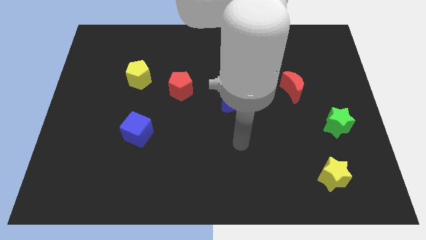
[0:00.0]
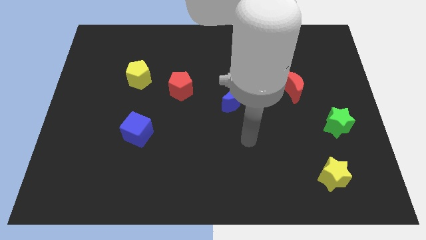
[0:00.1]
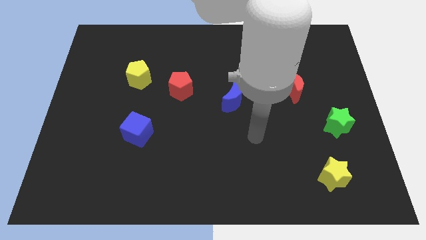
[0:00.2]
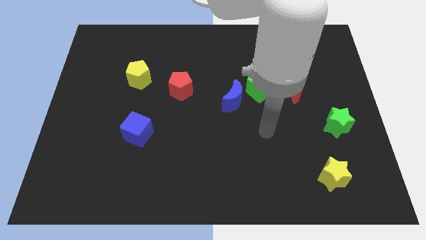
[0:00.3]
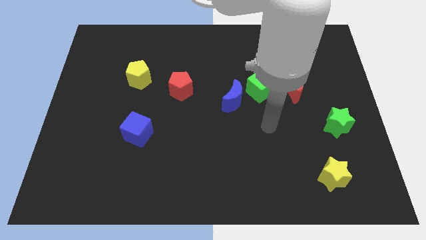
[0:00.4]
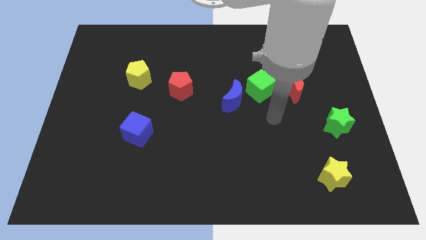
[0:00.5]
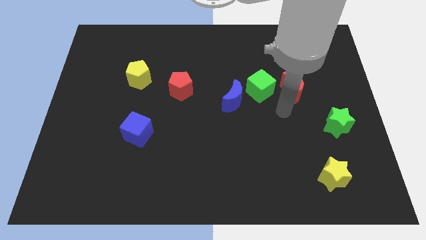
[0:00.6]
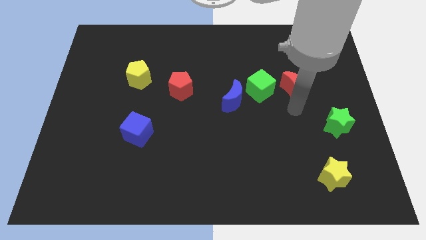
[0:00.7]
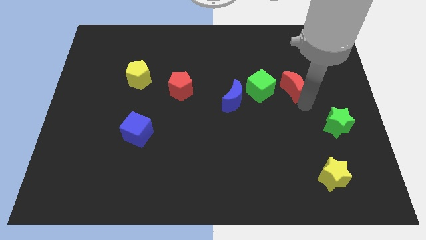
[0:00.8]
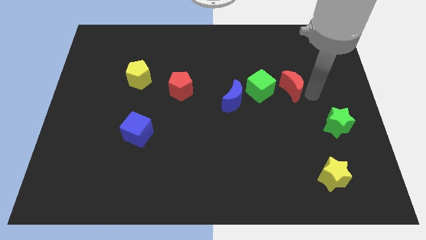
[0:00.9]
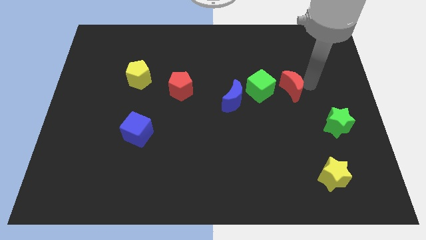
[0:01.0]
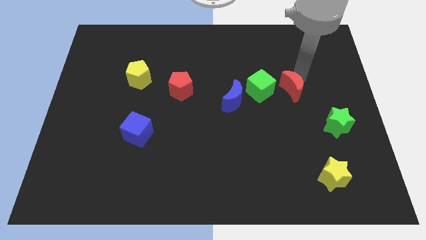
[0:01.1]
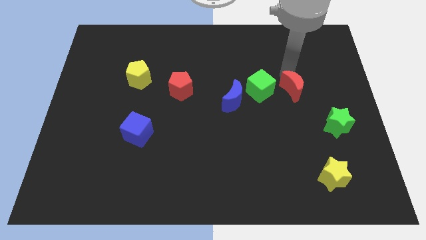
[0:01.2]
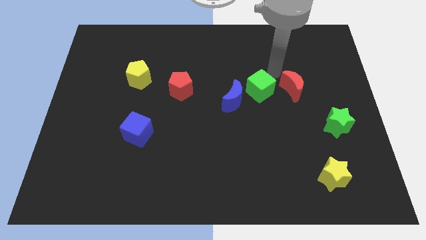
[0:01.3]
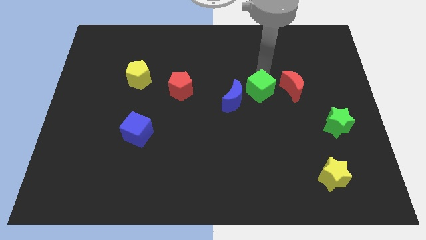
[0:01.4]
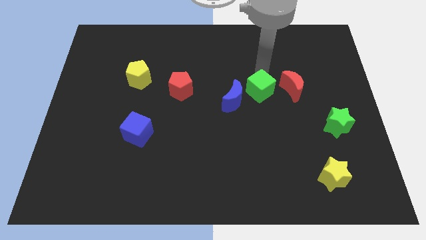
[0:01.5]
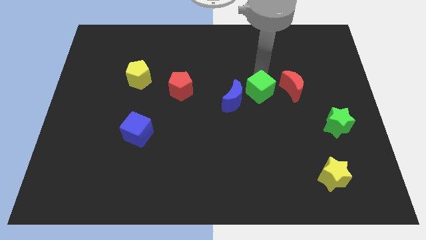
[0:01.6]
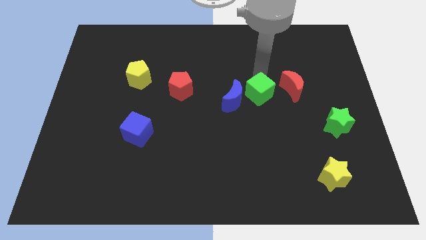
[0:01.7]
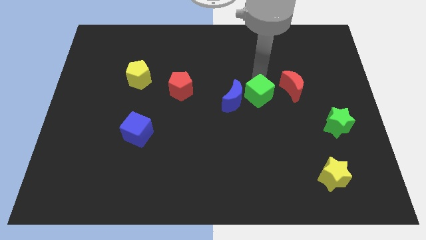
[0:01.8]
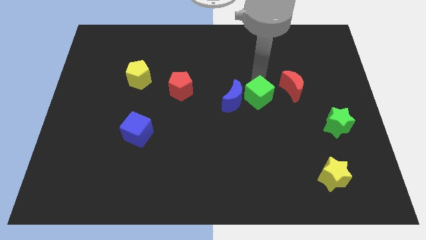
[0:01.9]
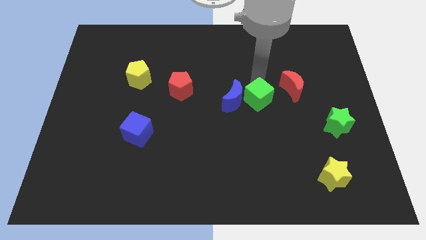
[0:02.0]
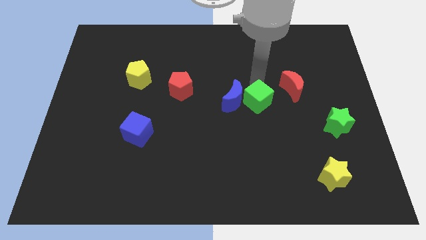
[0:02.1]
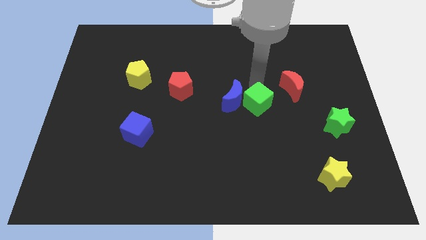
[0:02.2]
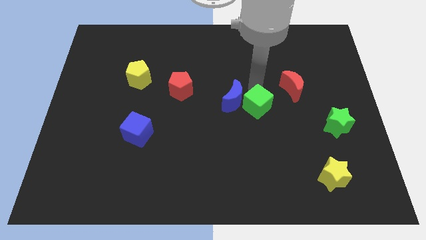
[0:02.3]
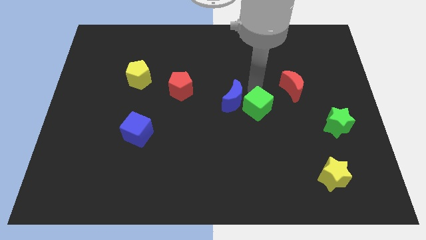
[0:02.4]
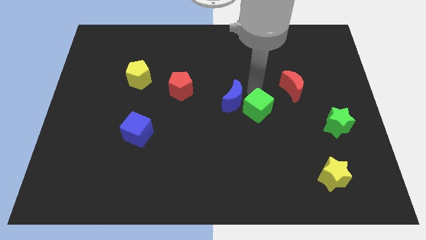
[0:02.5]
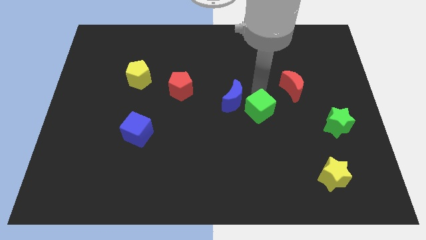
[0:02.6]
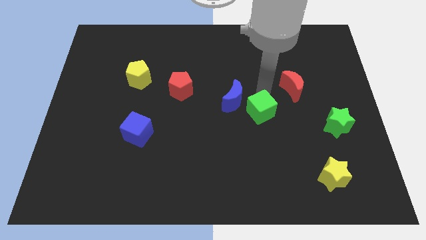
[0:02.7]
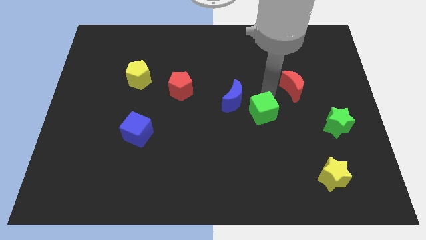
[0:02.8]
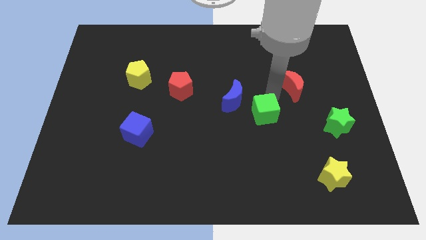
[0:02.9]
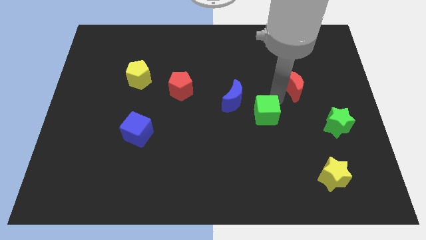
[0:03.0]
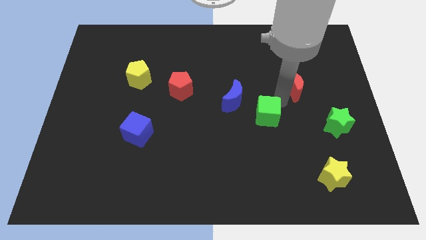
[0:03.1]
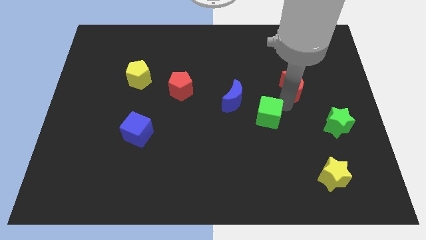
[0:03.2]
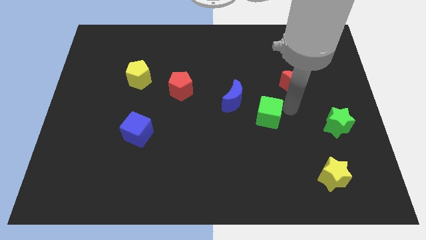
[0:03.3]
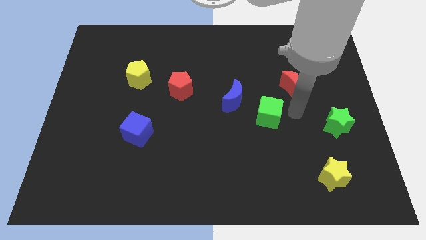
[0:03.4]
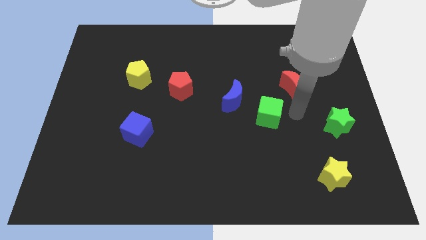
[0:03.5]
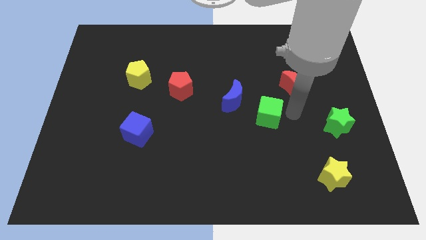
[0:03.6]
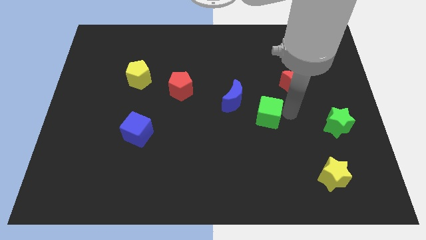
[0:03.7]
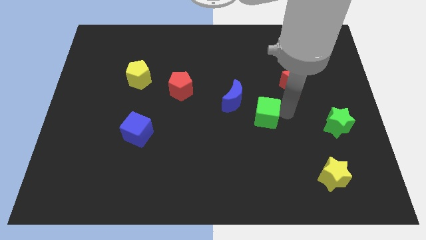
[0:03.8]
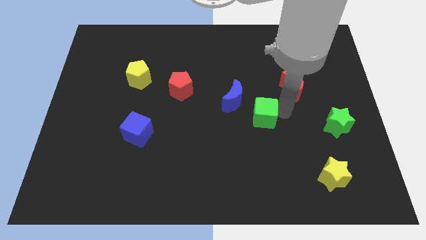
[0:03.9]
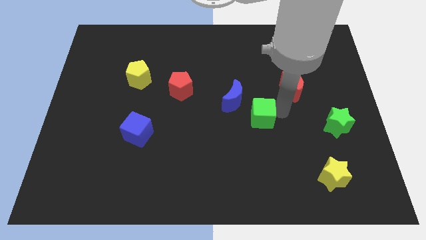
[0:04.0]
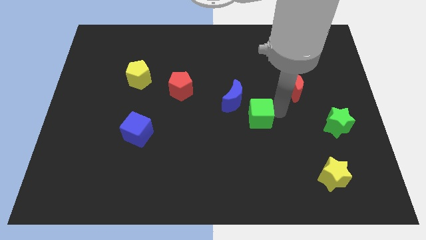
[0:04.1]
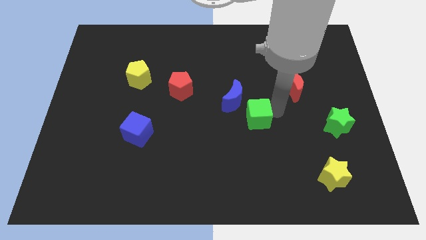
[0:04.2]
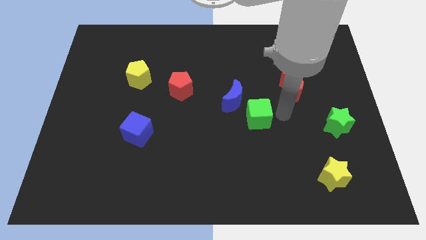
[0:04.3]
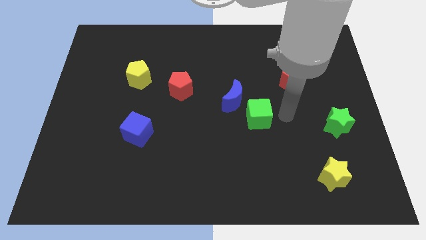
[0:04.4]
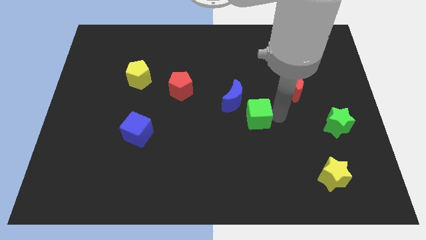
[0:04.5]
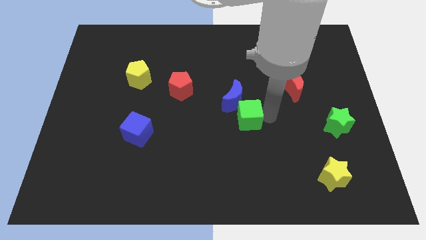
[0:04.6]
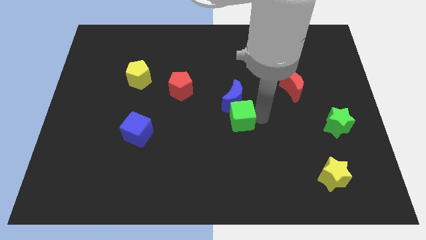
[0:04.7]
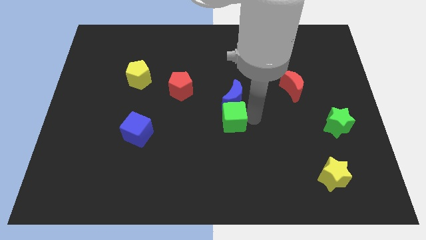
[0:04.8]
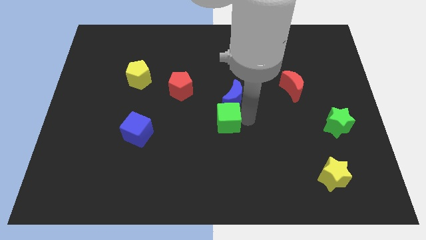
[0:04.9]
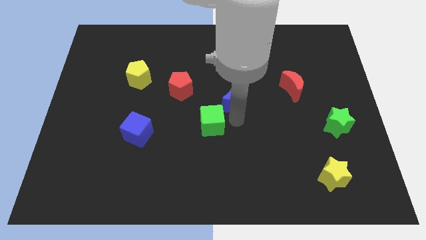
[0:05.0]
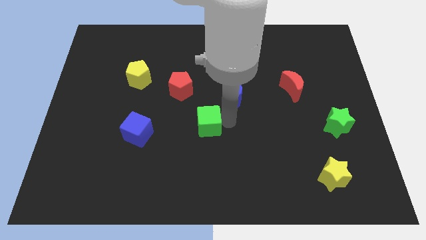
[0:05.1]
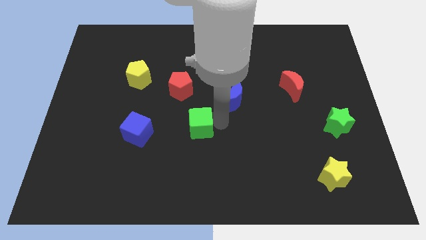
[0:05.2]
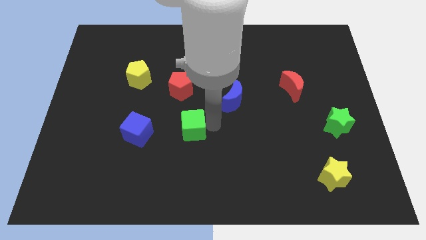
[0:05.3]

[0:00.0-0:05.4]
move the green cube below the red pentagon

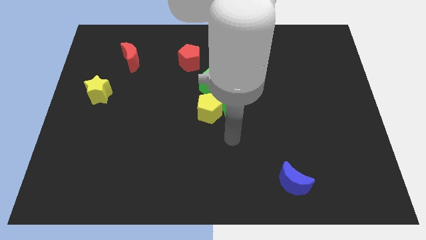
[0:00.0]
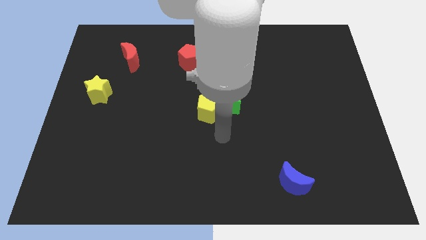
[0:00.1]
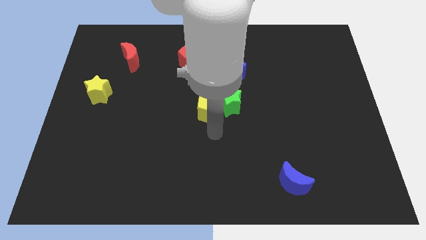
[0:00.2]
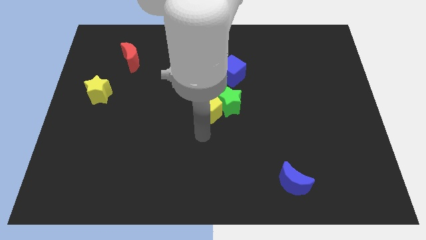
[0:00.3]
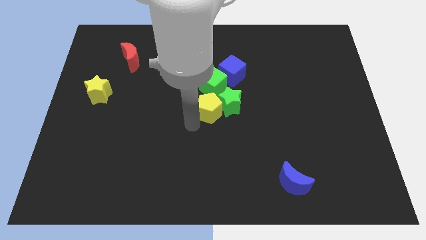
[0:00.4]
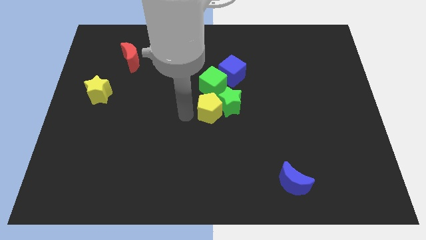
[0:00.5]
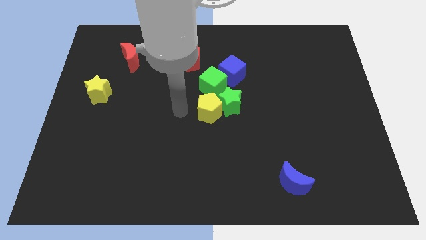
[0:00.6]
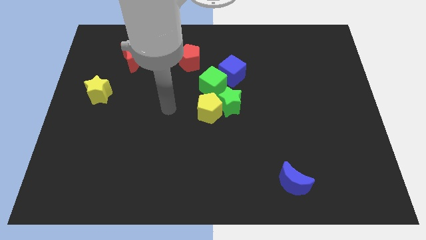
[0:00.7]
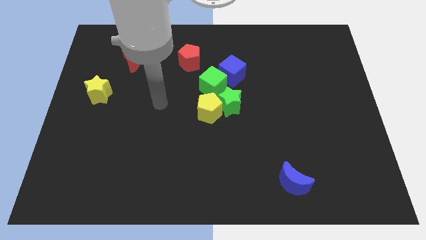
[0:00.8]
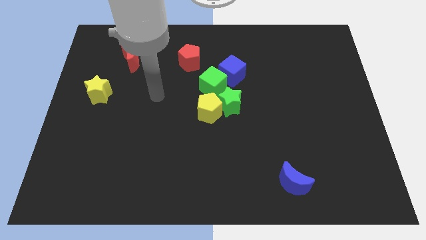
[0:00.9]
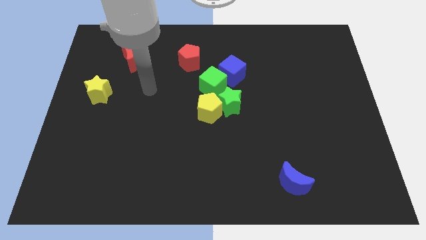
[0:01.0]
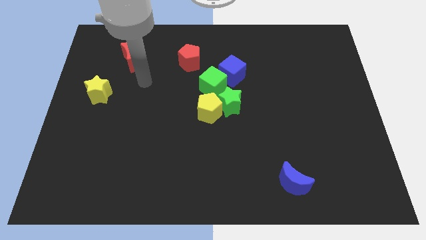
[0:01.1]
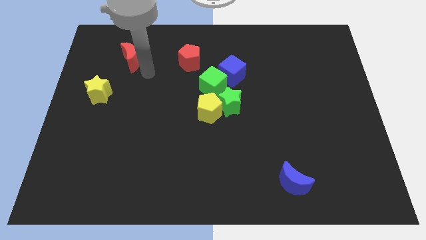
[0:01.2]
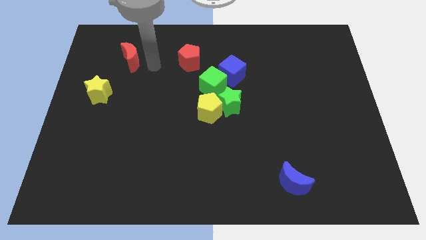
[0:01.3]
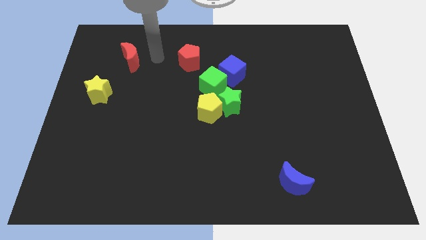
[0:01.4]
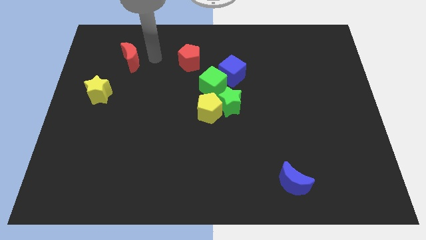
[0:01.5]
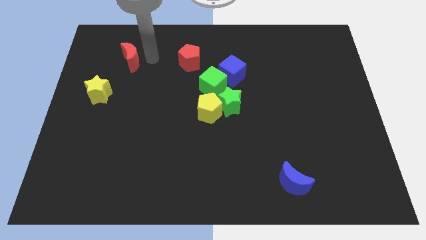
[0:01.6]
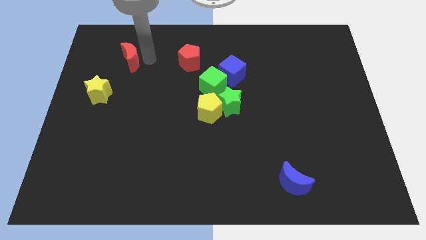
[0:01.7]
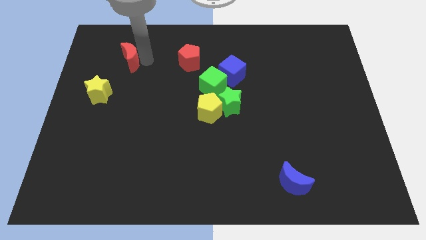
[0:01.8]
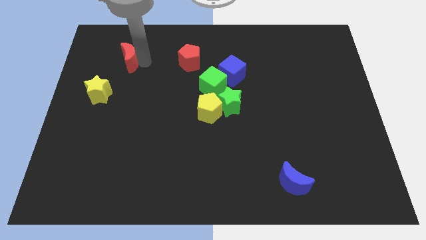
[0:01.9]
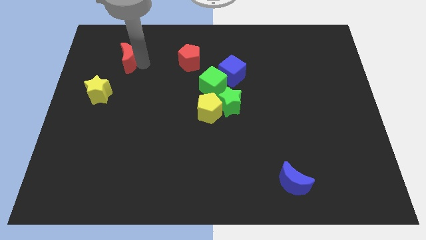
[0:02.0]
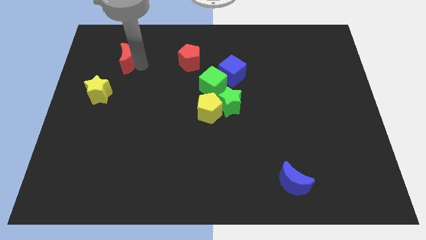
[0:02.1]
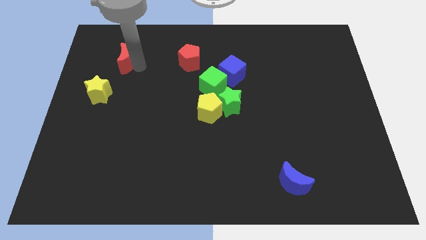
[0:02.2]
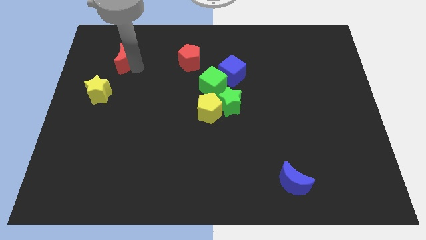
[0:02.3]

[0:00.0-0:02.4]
put the red moon above the yellow star
